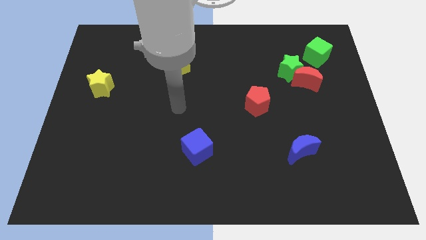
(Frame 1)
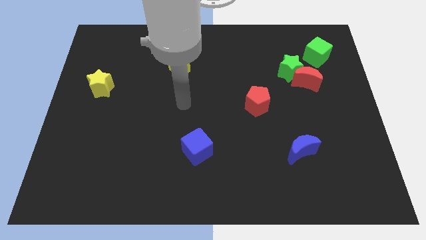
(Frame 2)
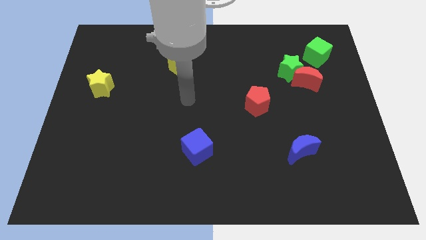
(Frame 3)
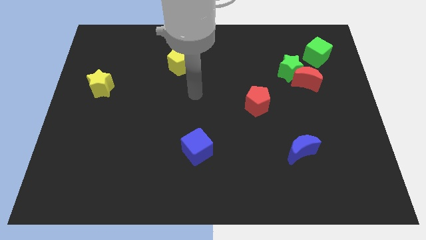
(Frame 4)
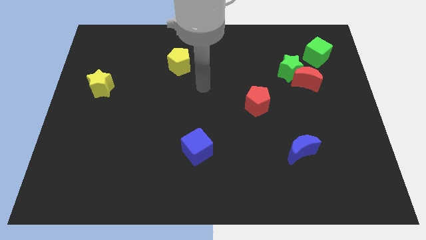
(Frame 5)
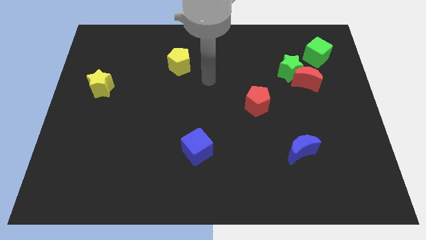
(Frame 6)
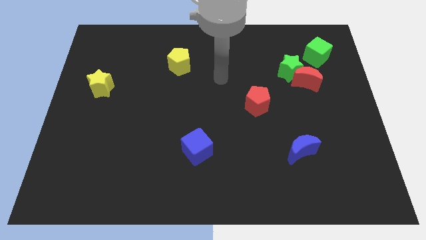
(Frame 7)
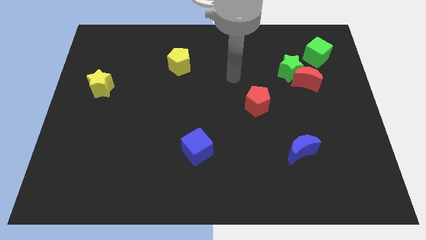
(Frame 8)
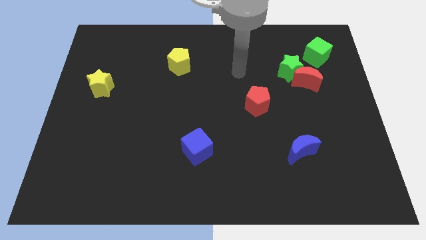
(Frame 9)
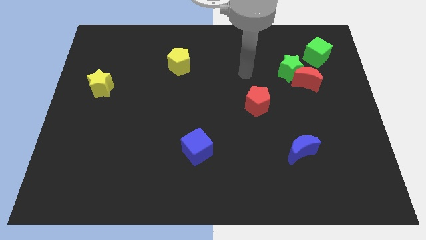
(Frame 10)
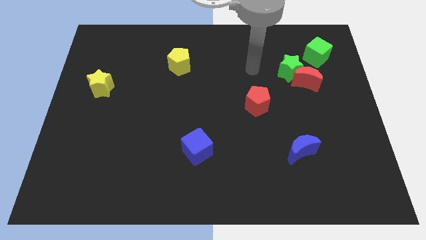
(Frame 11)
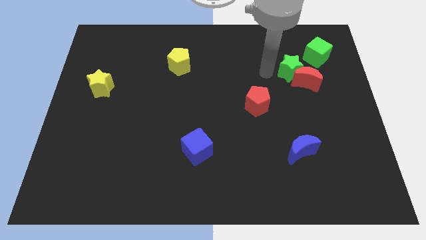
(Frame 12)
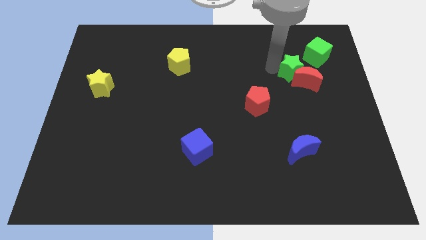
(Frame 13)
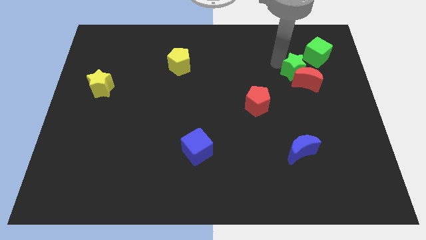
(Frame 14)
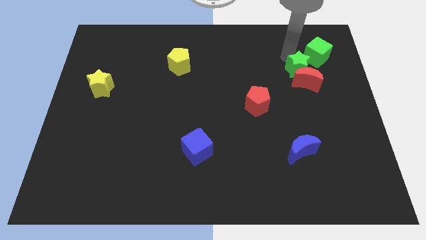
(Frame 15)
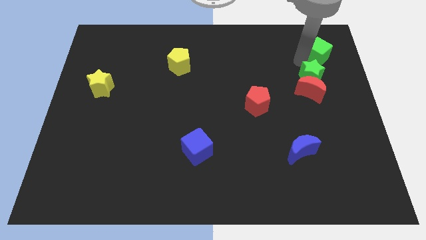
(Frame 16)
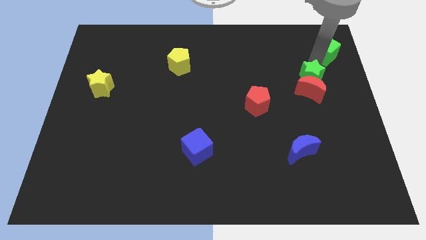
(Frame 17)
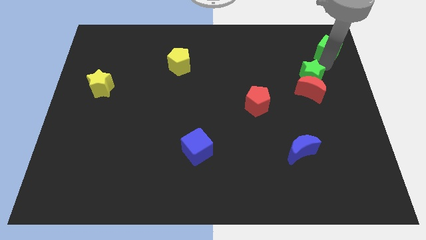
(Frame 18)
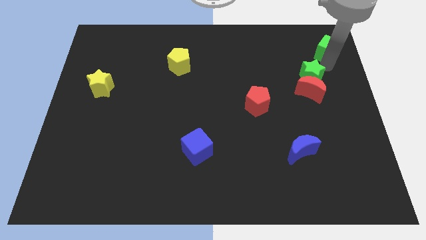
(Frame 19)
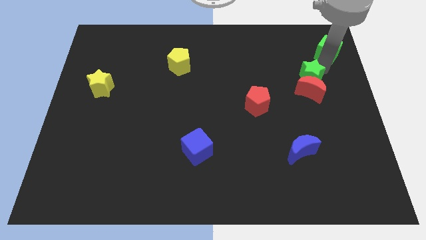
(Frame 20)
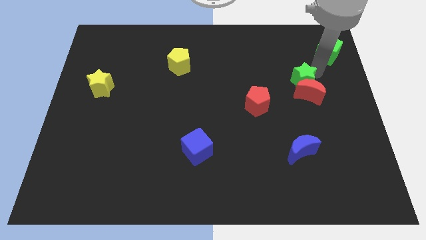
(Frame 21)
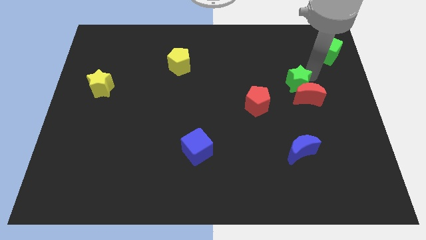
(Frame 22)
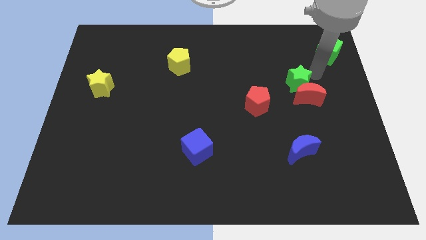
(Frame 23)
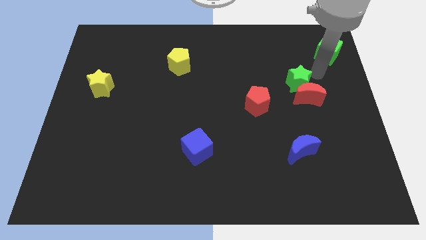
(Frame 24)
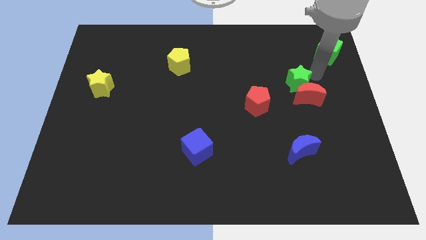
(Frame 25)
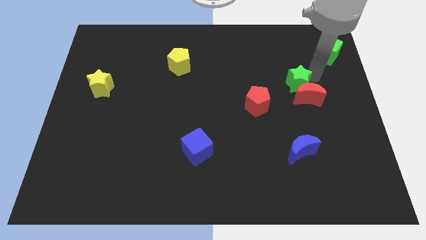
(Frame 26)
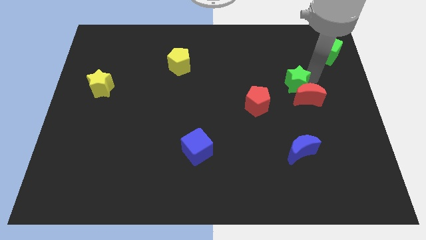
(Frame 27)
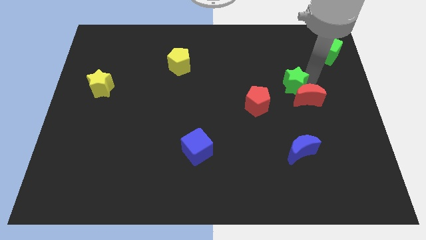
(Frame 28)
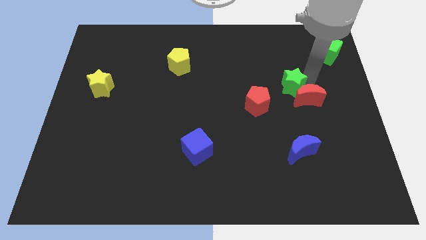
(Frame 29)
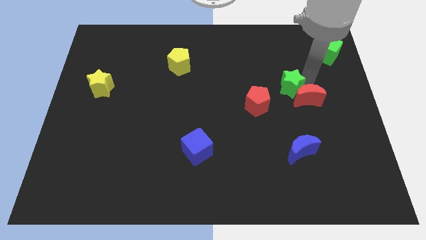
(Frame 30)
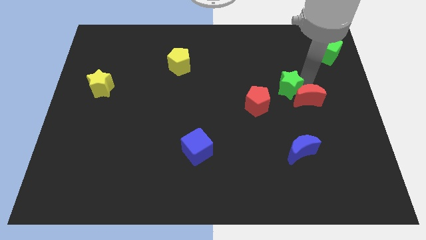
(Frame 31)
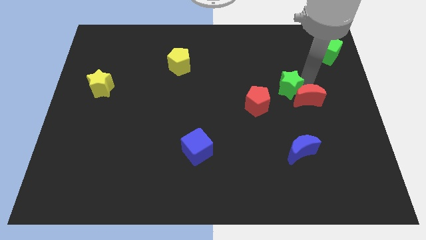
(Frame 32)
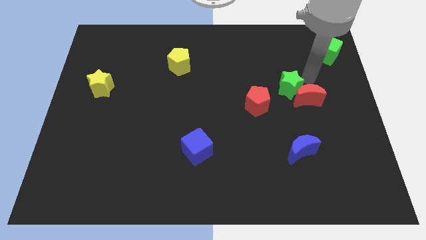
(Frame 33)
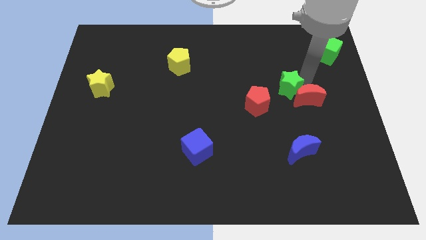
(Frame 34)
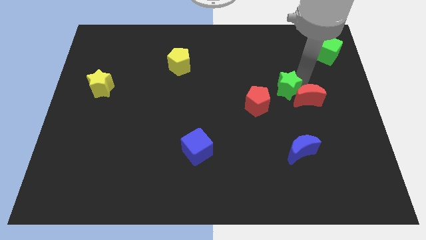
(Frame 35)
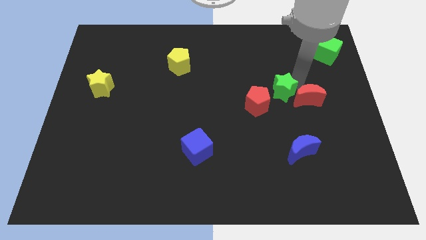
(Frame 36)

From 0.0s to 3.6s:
pull the green star apart from the red moon and green cube

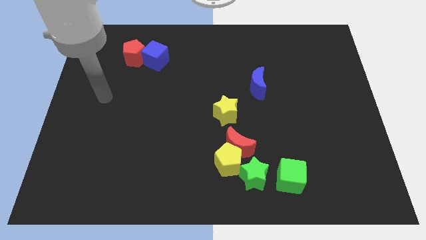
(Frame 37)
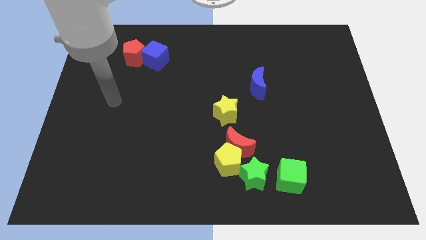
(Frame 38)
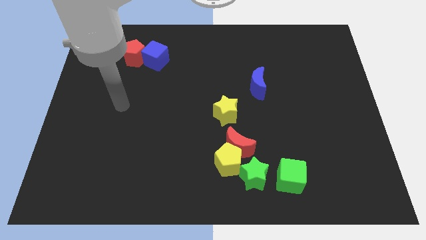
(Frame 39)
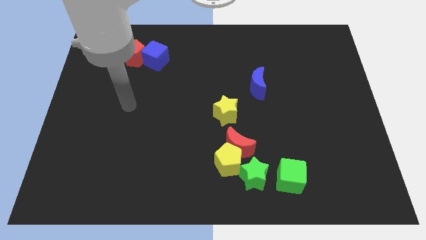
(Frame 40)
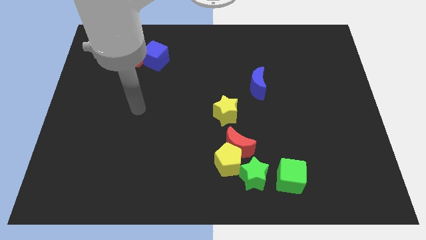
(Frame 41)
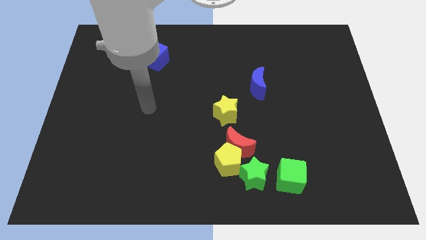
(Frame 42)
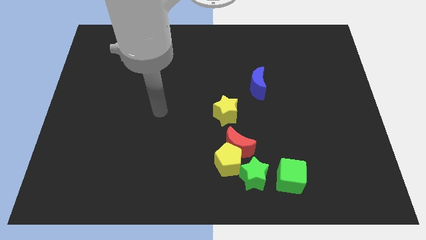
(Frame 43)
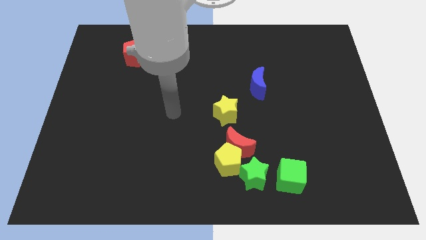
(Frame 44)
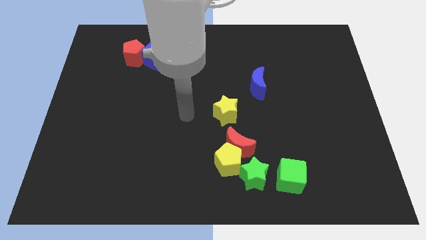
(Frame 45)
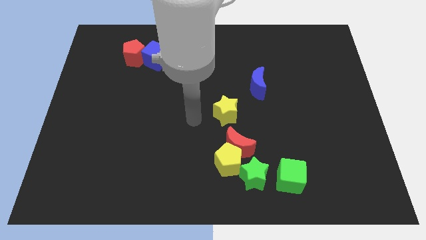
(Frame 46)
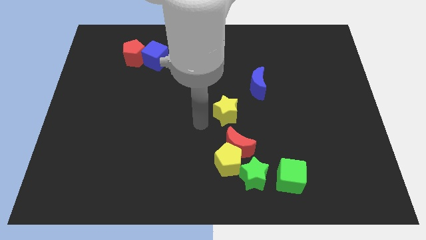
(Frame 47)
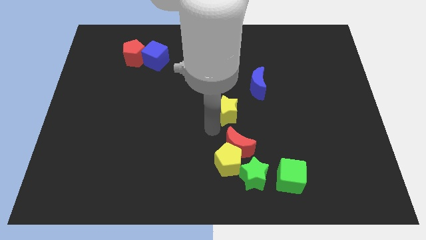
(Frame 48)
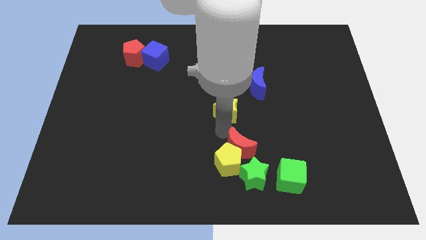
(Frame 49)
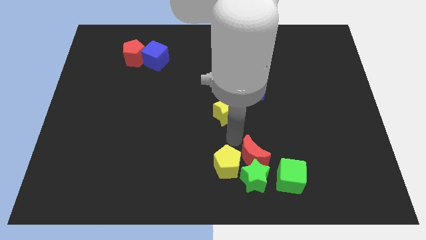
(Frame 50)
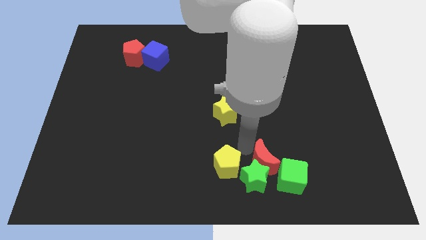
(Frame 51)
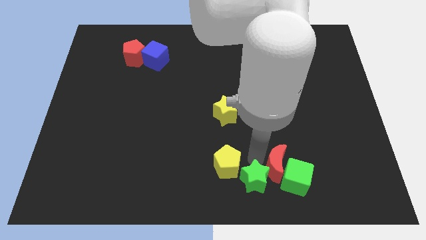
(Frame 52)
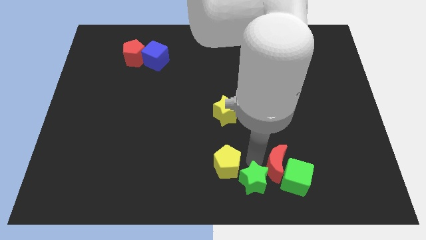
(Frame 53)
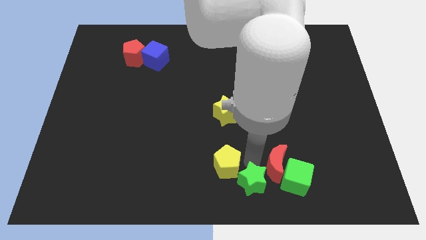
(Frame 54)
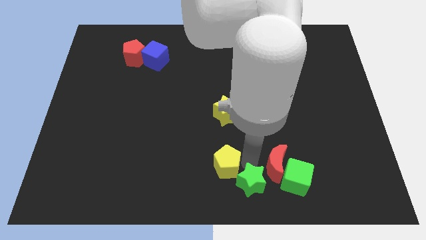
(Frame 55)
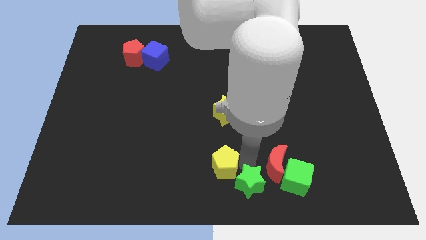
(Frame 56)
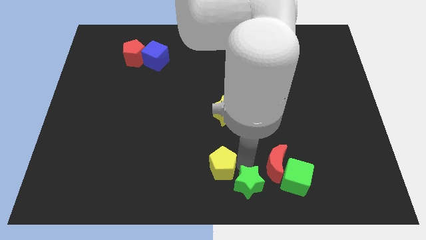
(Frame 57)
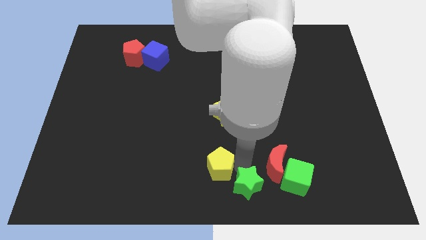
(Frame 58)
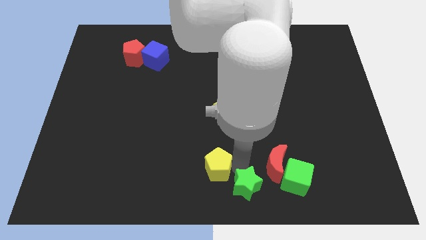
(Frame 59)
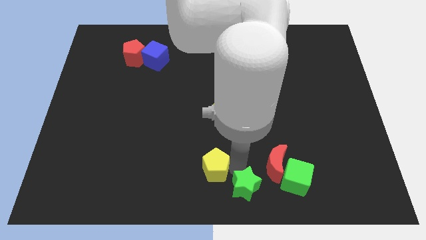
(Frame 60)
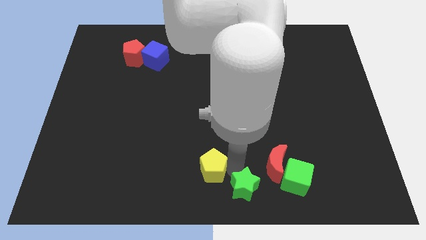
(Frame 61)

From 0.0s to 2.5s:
separate the yellow pentagon from the red moon and green star

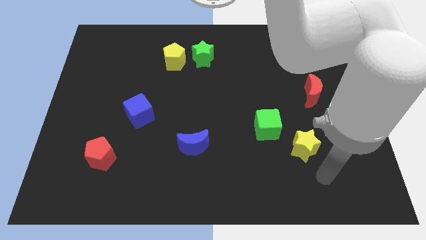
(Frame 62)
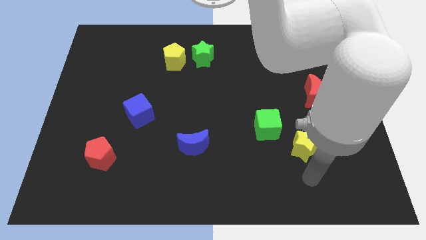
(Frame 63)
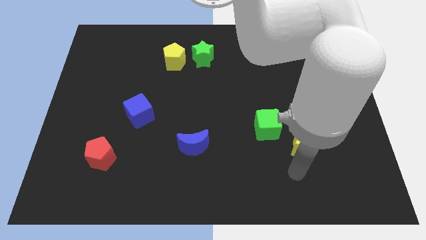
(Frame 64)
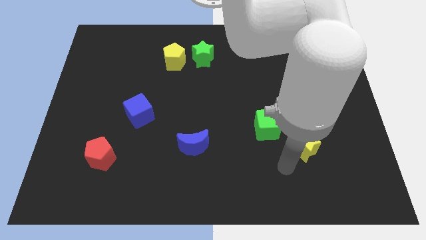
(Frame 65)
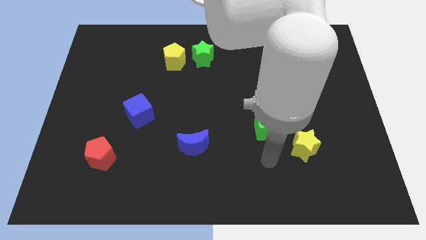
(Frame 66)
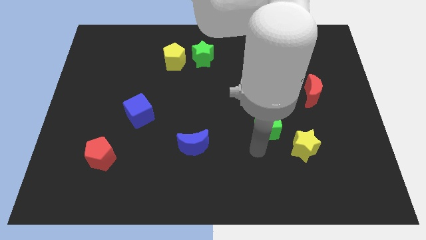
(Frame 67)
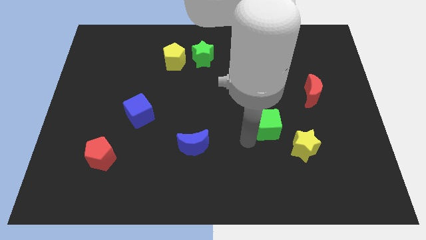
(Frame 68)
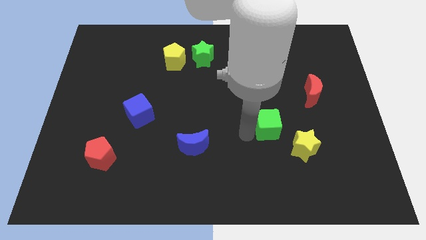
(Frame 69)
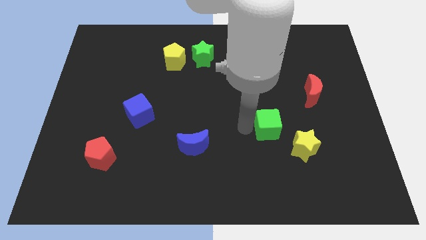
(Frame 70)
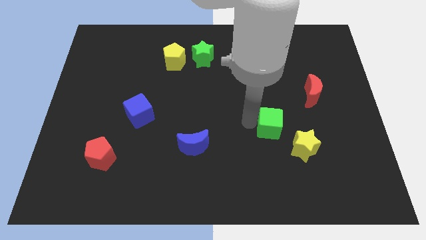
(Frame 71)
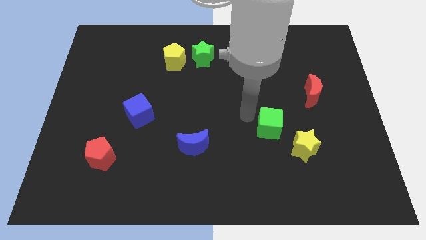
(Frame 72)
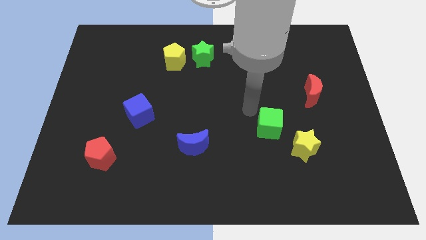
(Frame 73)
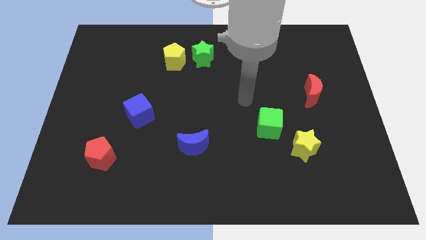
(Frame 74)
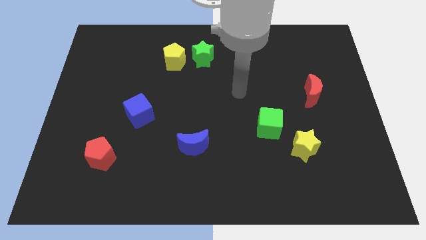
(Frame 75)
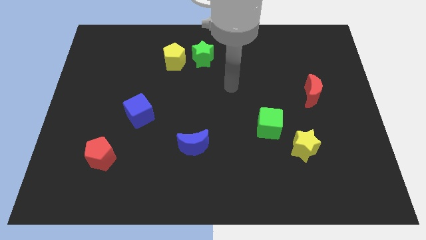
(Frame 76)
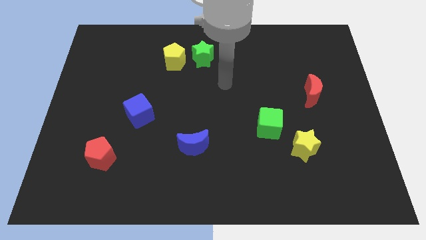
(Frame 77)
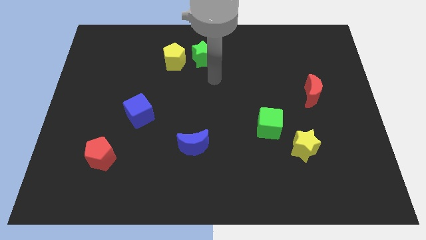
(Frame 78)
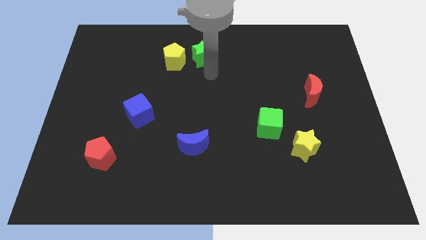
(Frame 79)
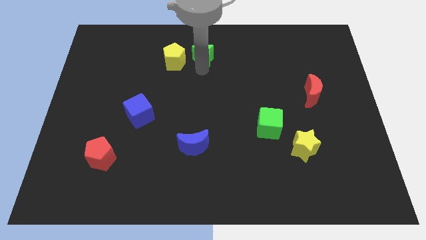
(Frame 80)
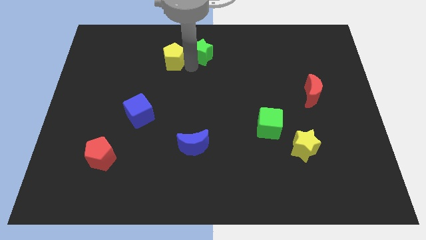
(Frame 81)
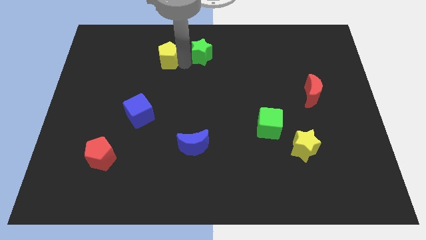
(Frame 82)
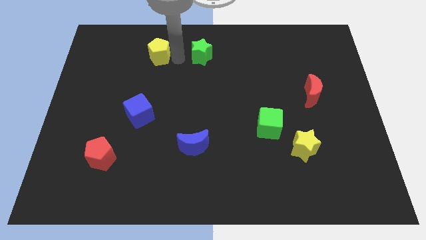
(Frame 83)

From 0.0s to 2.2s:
separate the green star from the yellow pentagon

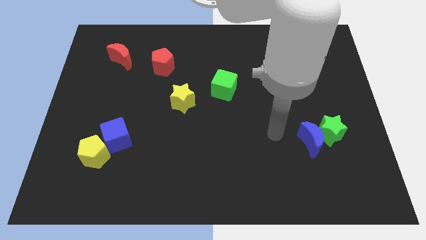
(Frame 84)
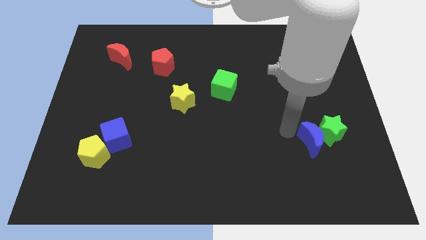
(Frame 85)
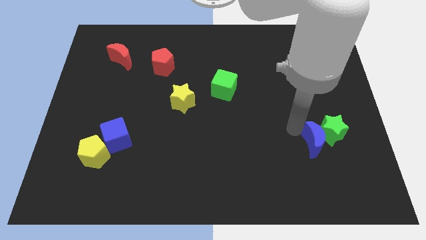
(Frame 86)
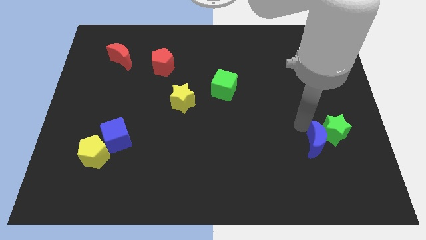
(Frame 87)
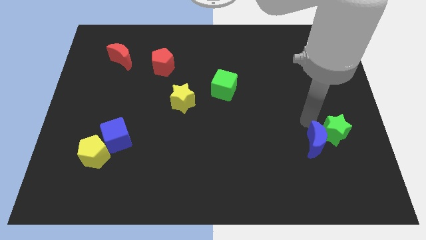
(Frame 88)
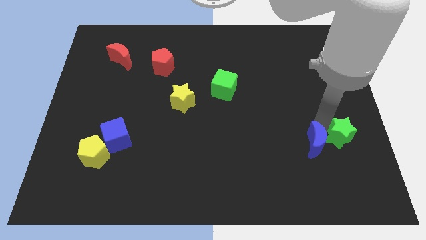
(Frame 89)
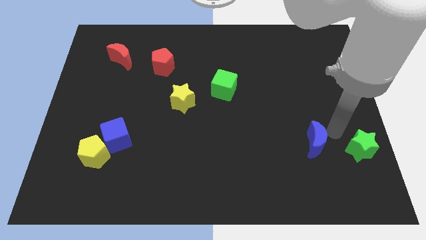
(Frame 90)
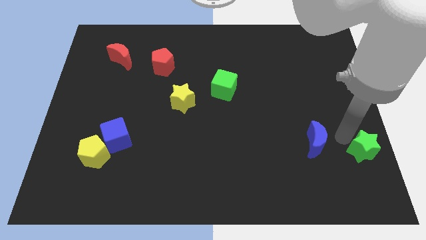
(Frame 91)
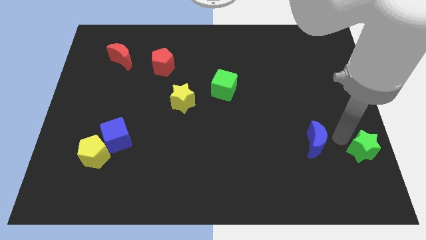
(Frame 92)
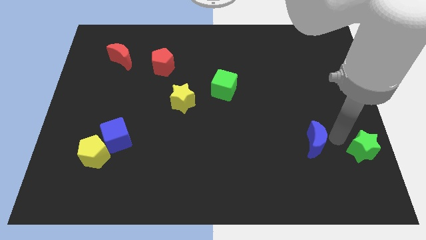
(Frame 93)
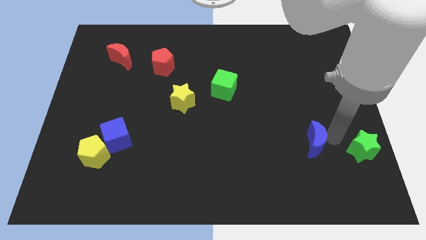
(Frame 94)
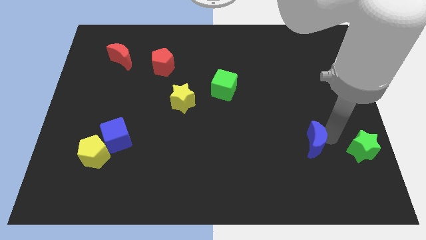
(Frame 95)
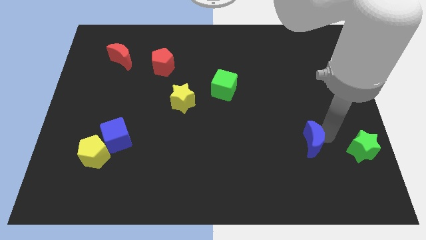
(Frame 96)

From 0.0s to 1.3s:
separate the blue moon from the green star
